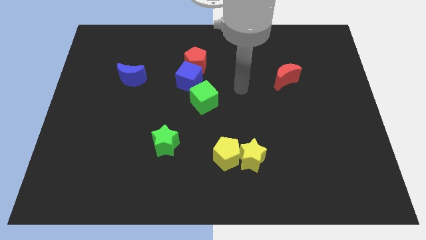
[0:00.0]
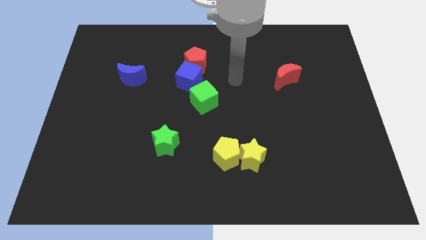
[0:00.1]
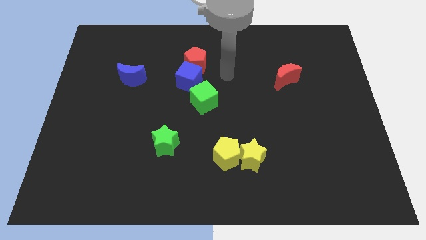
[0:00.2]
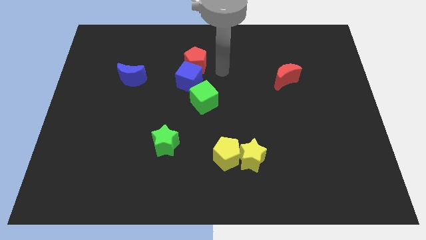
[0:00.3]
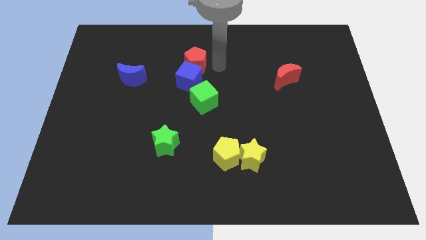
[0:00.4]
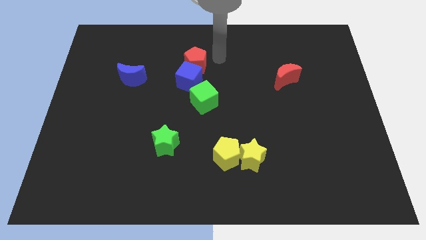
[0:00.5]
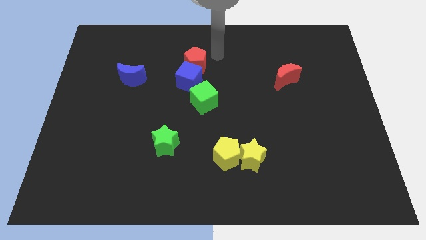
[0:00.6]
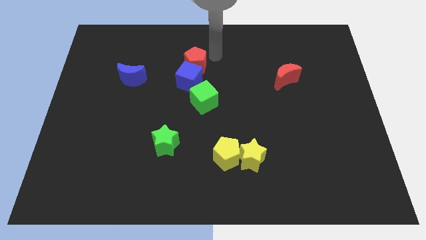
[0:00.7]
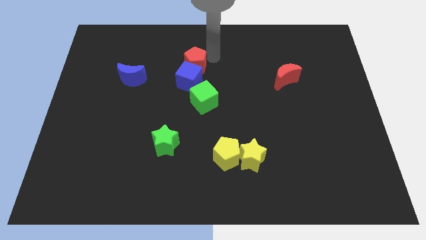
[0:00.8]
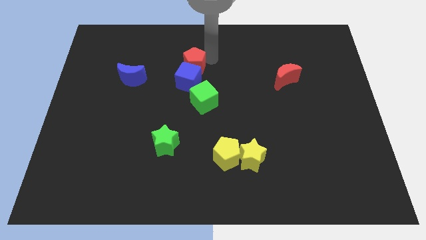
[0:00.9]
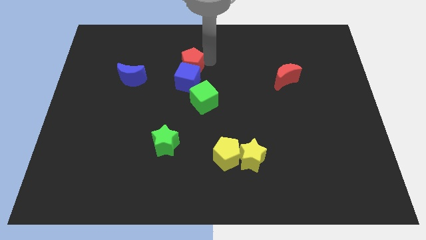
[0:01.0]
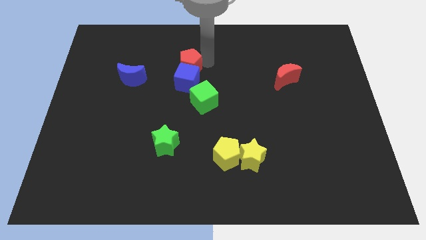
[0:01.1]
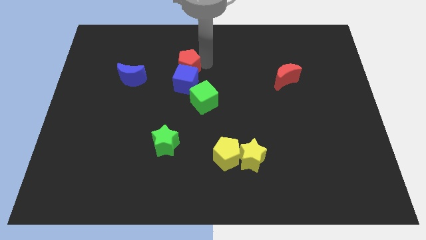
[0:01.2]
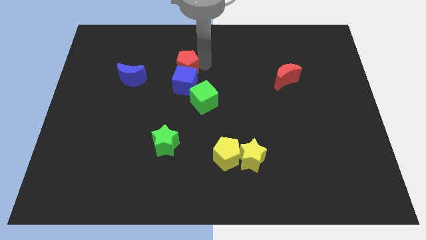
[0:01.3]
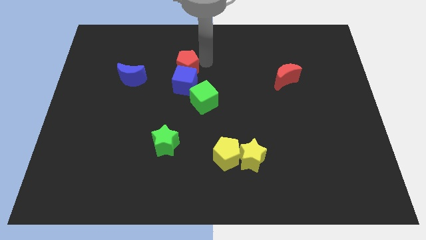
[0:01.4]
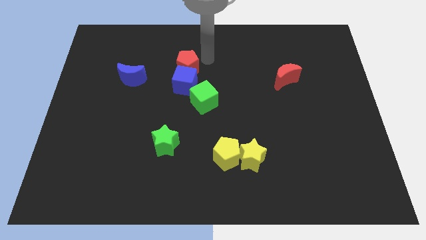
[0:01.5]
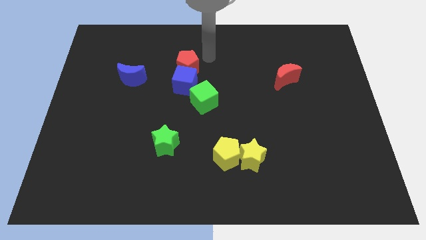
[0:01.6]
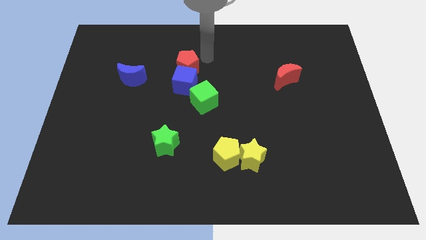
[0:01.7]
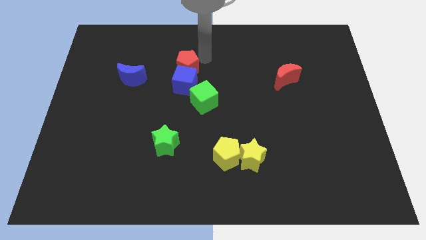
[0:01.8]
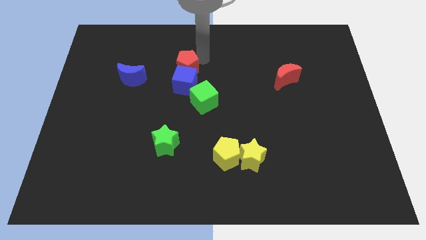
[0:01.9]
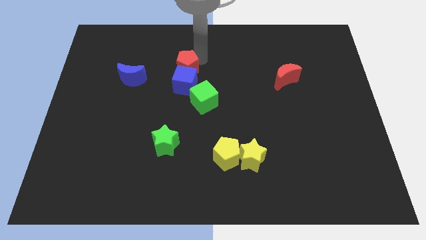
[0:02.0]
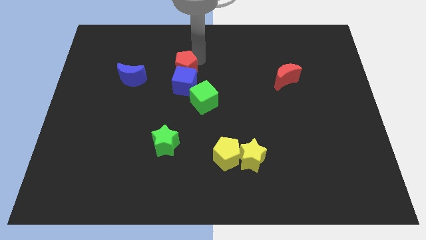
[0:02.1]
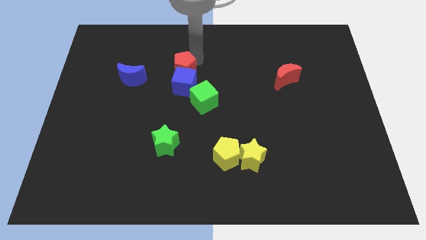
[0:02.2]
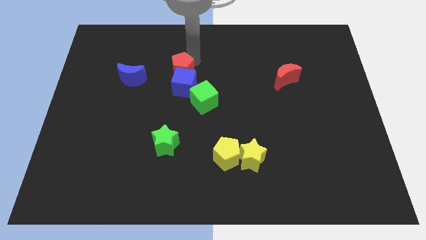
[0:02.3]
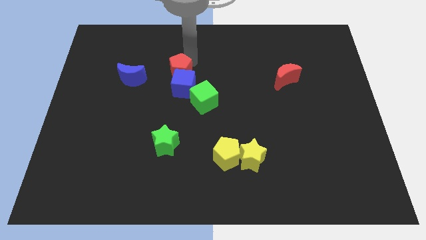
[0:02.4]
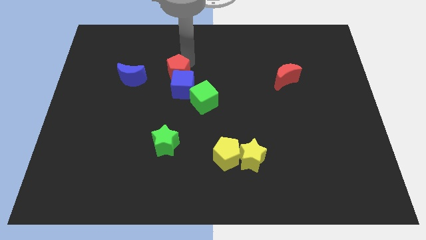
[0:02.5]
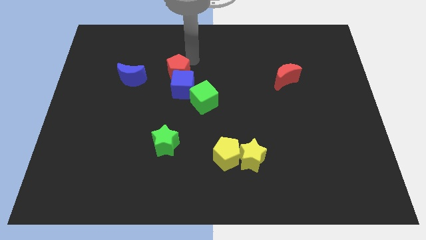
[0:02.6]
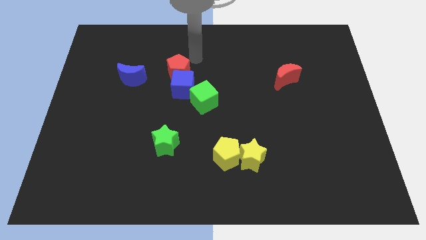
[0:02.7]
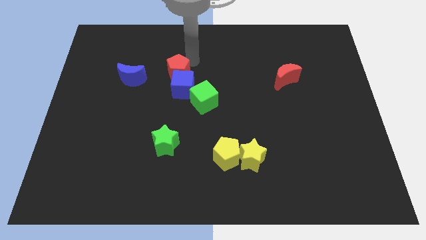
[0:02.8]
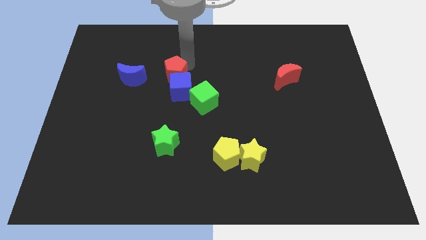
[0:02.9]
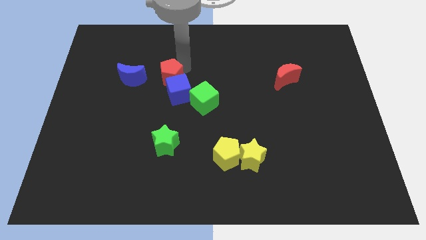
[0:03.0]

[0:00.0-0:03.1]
slightly slide the red pentagon diagonally down and left

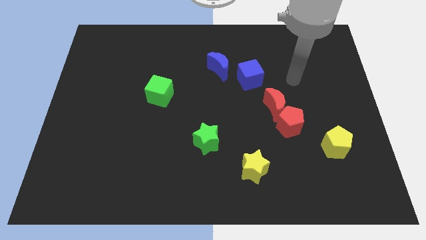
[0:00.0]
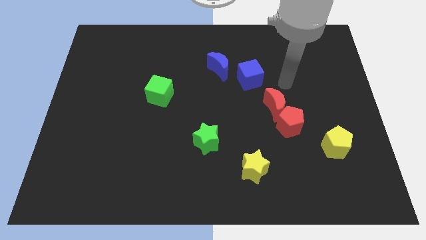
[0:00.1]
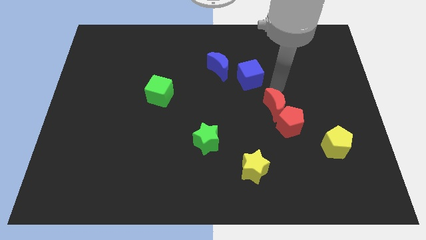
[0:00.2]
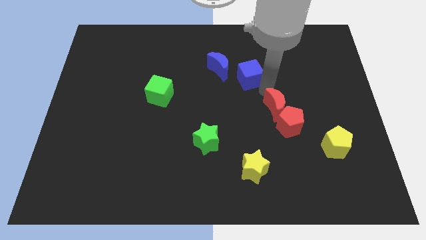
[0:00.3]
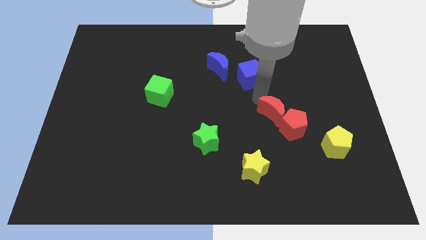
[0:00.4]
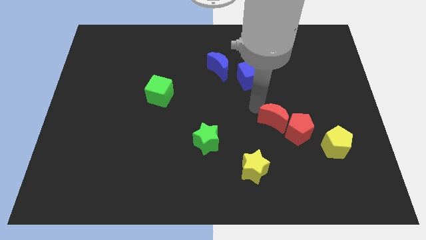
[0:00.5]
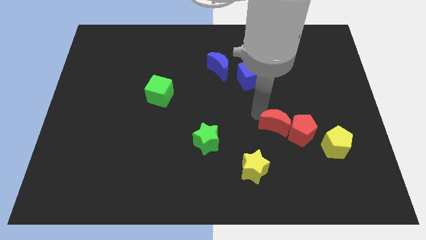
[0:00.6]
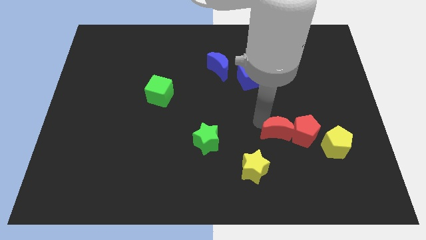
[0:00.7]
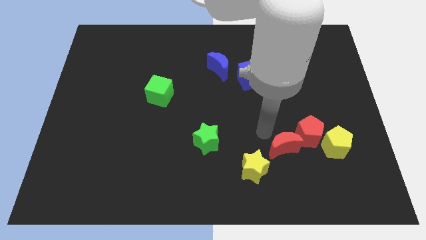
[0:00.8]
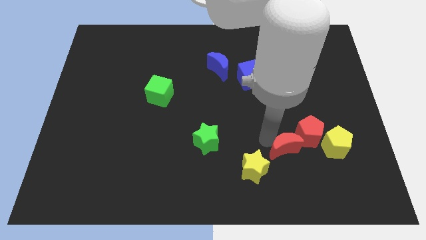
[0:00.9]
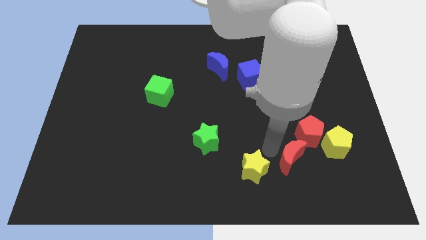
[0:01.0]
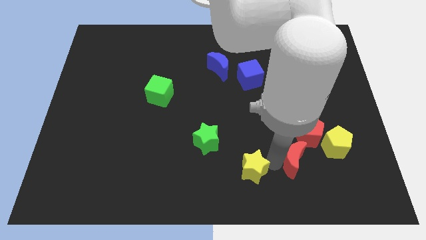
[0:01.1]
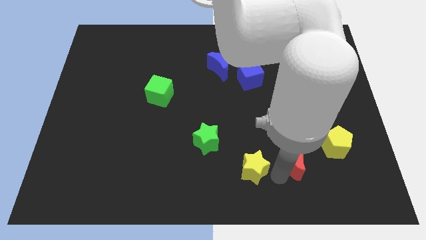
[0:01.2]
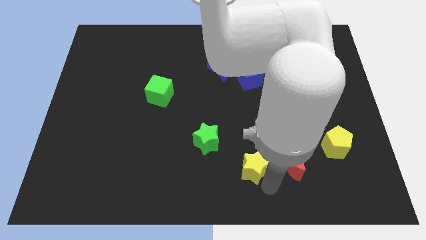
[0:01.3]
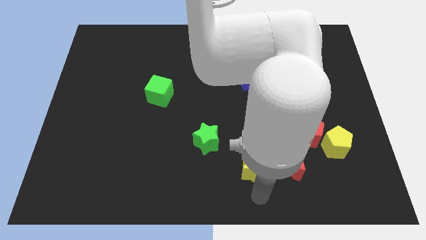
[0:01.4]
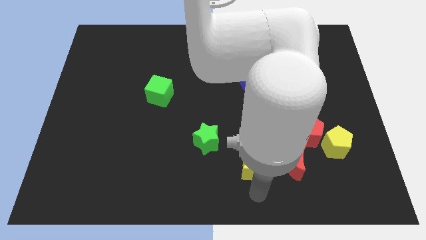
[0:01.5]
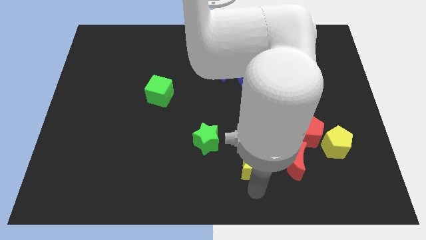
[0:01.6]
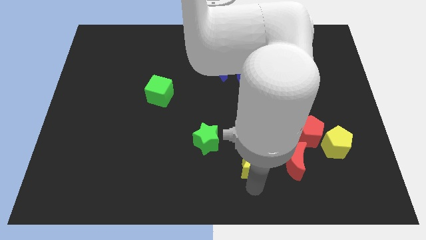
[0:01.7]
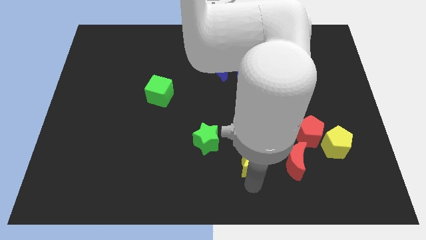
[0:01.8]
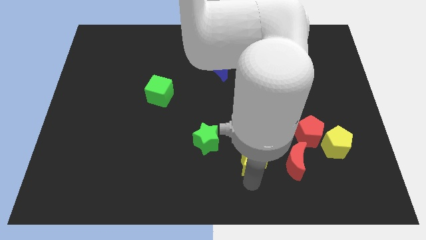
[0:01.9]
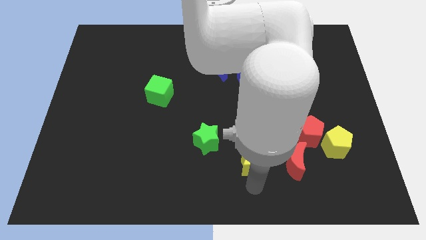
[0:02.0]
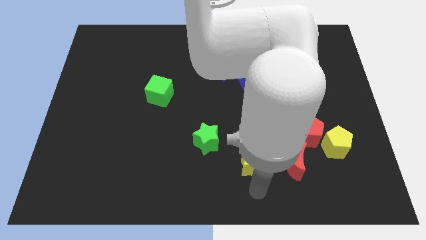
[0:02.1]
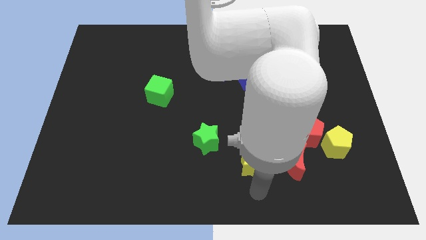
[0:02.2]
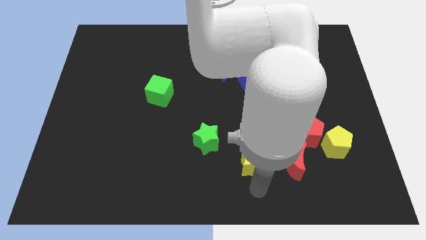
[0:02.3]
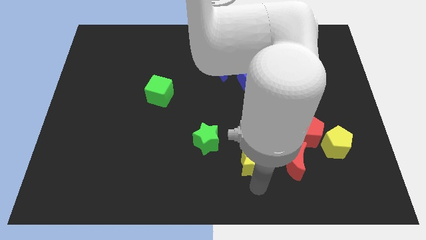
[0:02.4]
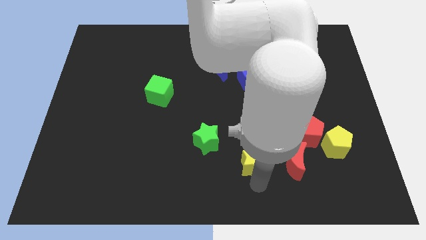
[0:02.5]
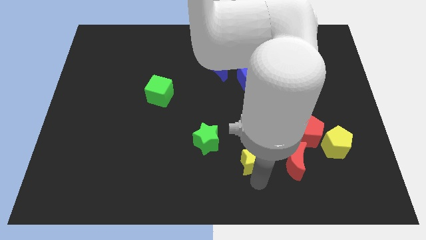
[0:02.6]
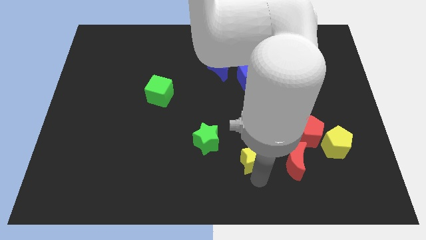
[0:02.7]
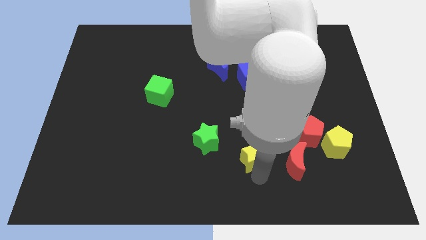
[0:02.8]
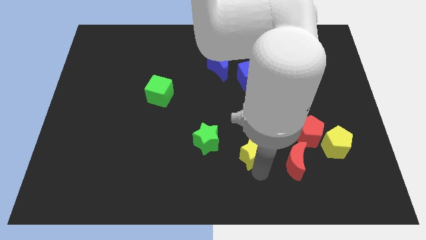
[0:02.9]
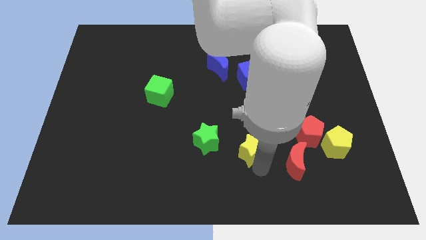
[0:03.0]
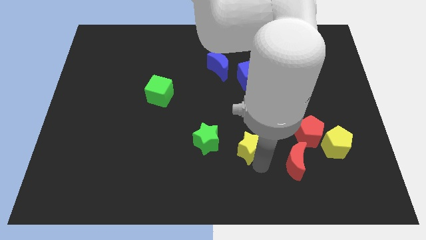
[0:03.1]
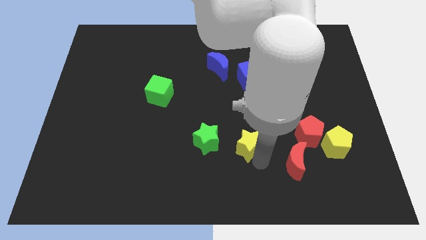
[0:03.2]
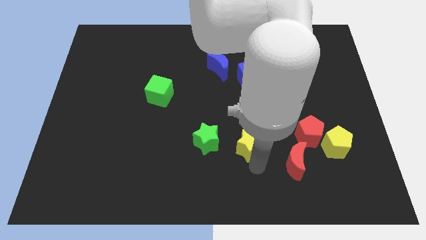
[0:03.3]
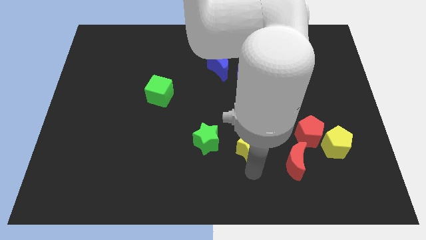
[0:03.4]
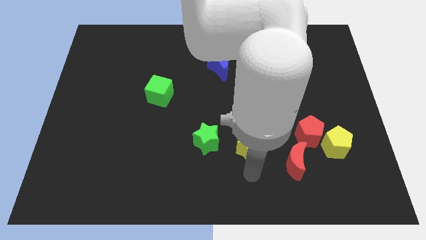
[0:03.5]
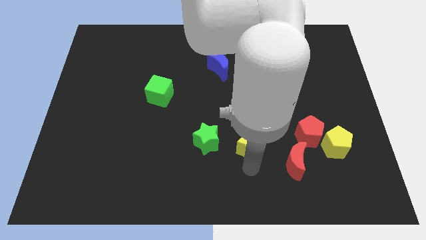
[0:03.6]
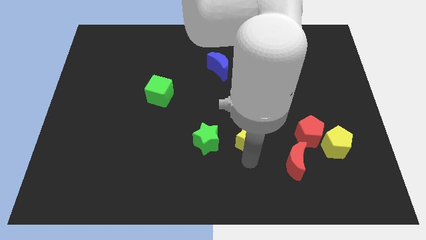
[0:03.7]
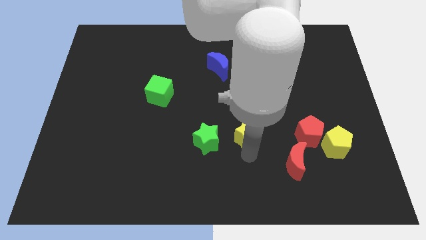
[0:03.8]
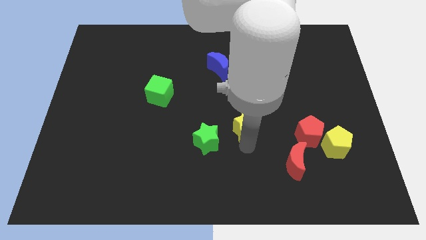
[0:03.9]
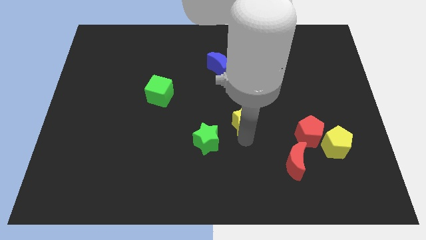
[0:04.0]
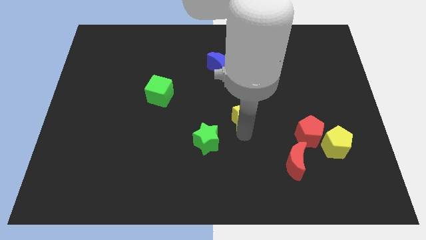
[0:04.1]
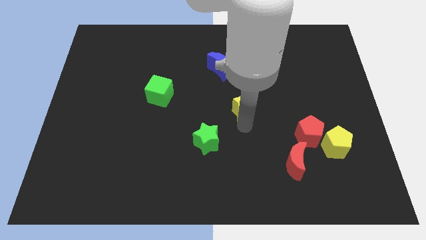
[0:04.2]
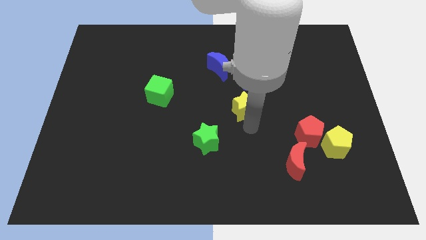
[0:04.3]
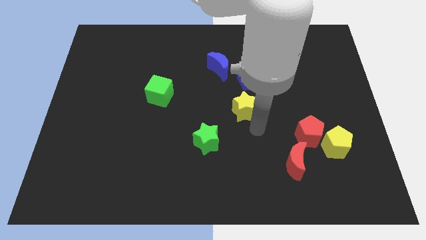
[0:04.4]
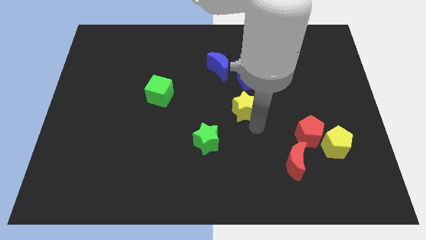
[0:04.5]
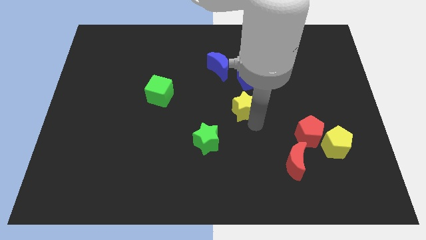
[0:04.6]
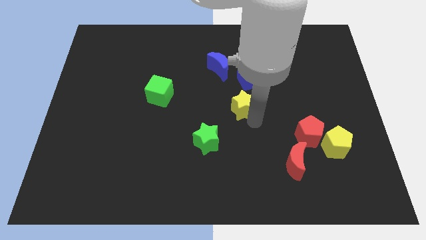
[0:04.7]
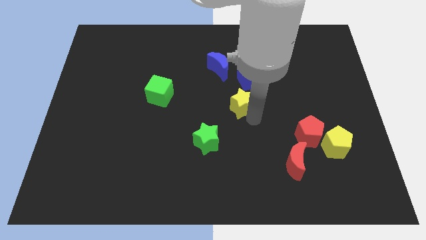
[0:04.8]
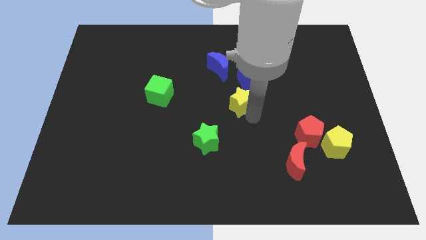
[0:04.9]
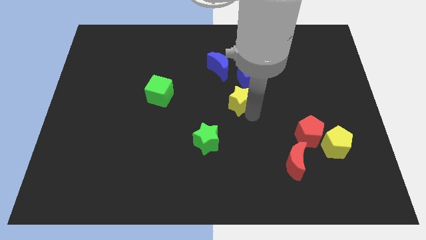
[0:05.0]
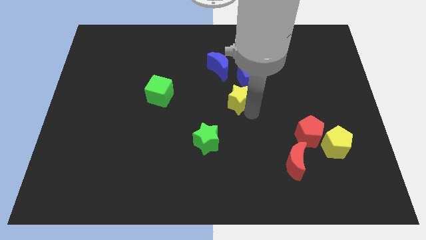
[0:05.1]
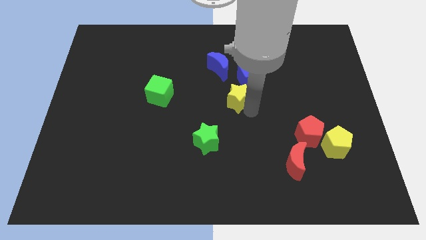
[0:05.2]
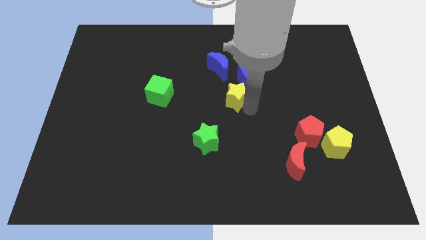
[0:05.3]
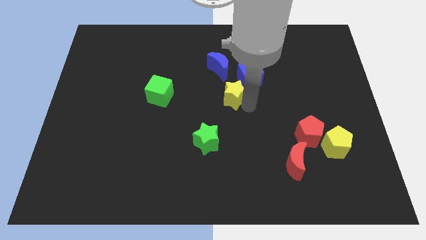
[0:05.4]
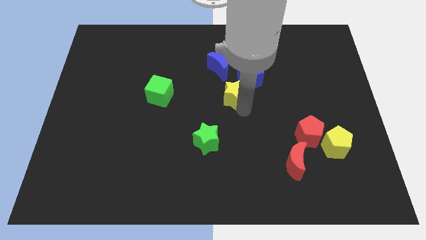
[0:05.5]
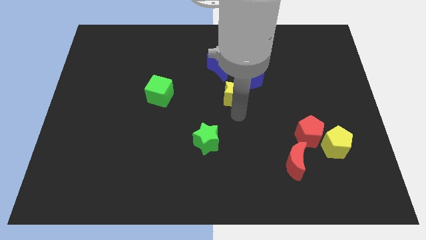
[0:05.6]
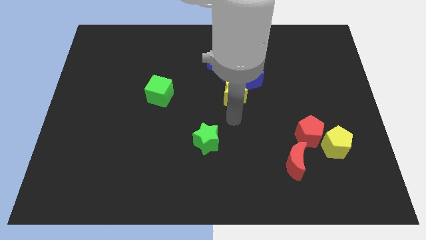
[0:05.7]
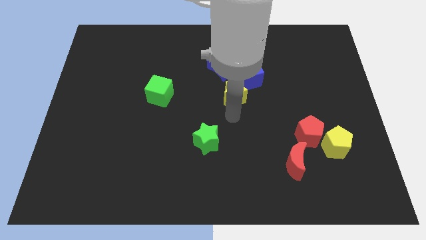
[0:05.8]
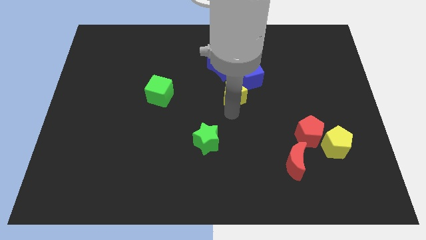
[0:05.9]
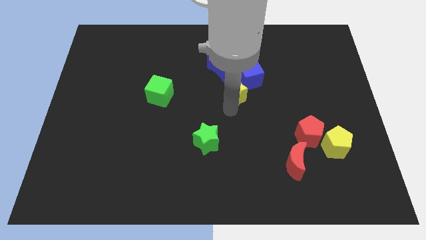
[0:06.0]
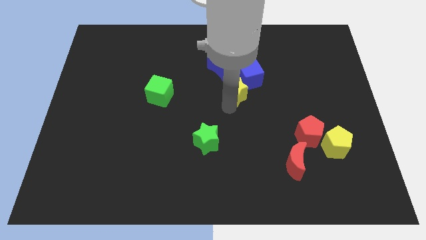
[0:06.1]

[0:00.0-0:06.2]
slide the yellow star upwards
